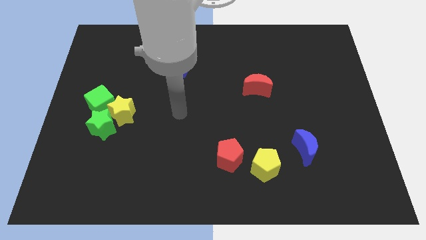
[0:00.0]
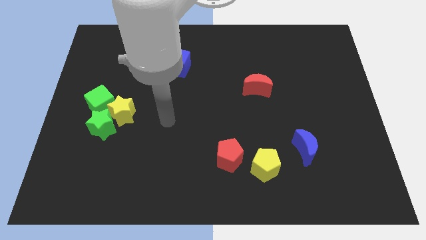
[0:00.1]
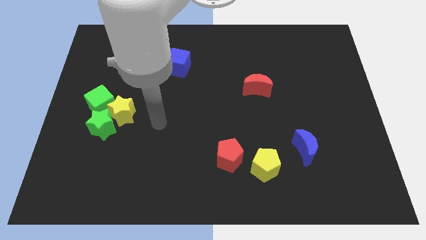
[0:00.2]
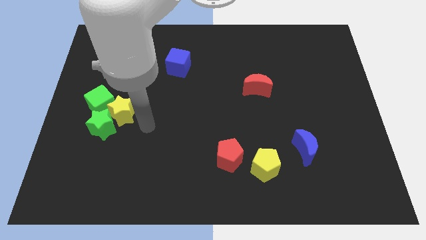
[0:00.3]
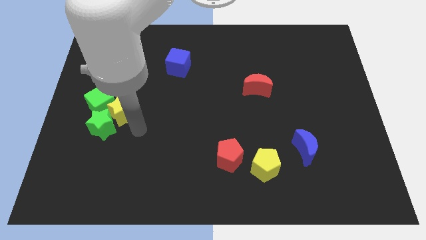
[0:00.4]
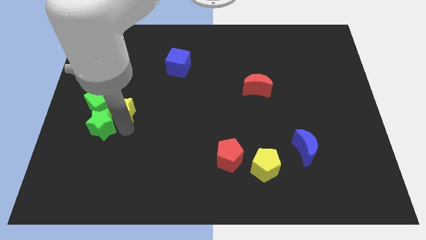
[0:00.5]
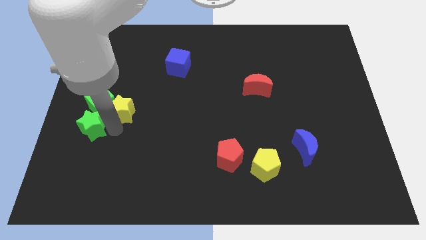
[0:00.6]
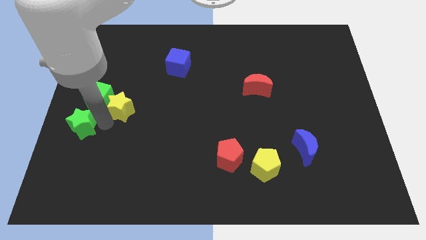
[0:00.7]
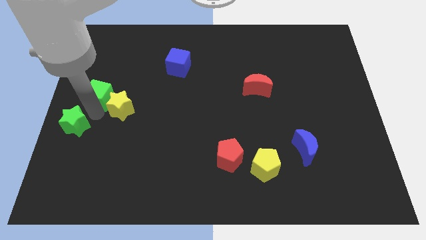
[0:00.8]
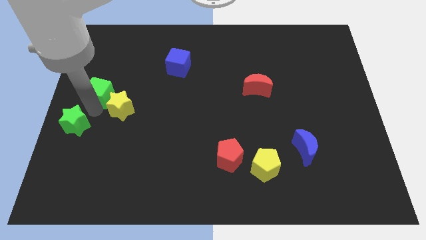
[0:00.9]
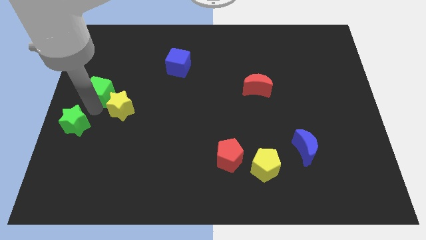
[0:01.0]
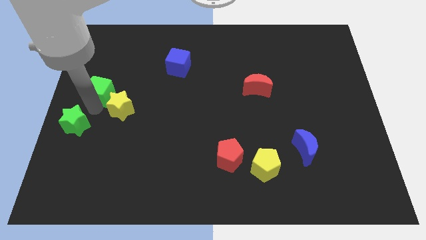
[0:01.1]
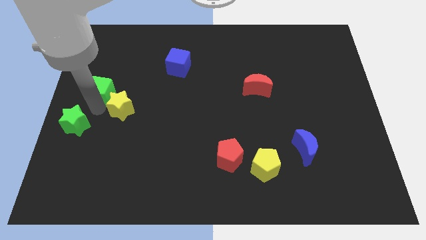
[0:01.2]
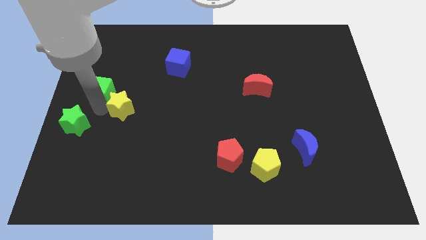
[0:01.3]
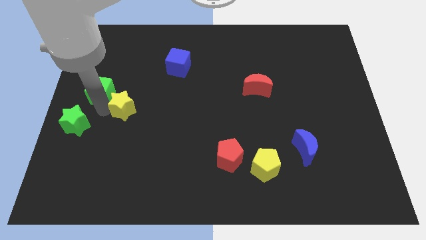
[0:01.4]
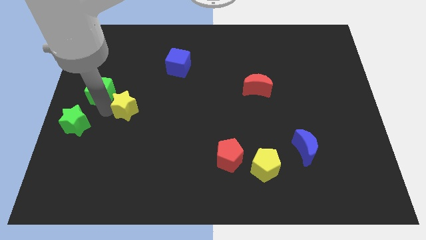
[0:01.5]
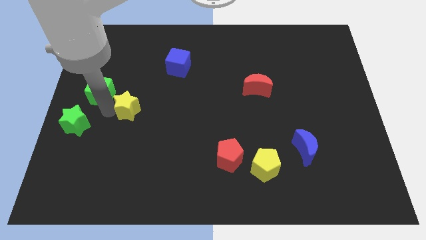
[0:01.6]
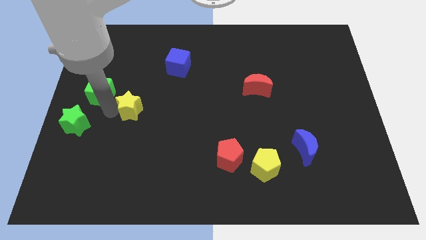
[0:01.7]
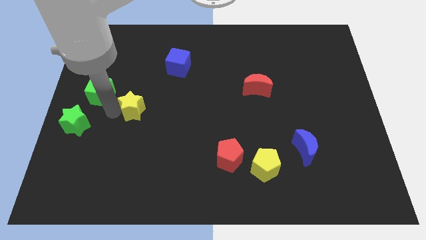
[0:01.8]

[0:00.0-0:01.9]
pull the yellow star apart from the green star and green cube

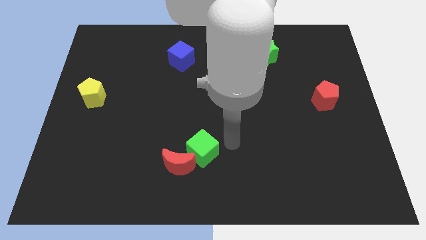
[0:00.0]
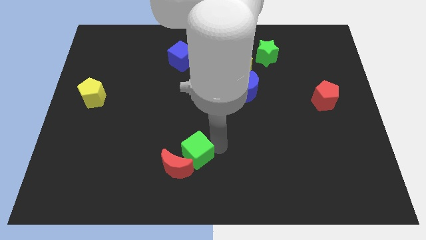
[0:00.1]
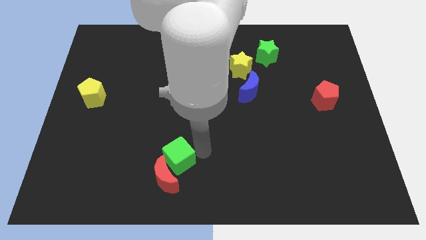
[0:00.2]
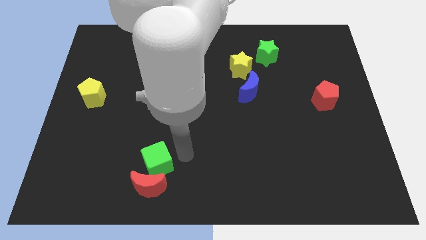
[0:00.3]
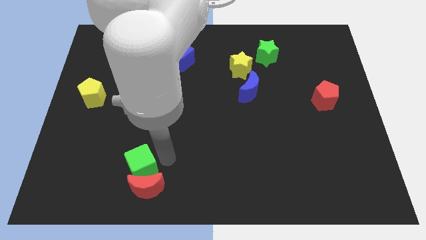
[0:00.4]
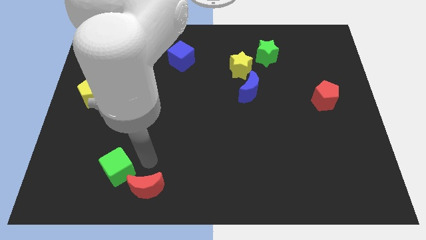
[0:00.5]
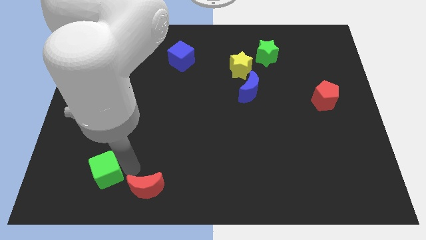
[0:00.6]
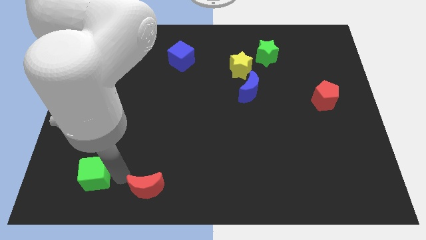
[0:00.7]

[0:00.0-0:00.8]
pull the red moon apart from the green cube

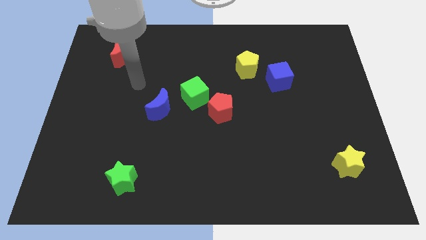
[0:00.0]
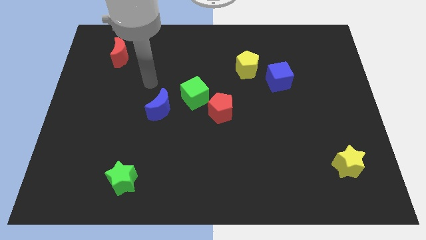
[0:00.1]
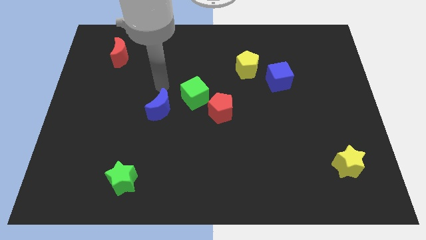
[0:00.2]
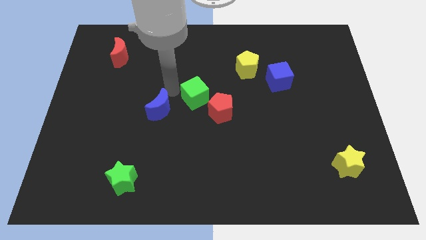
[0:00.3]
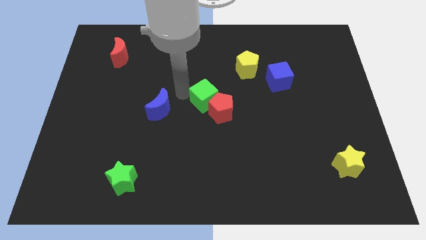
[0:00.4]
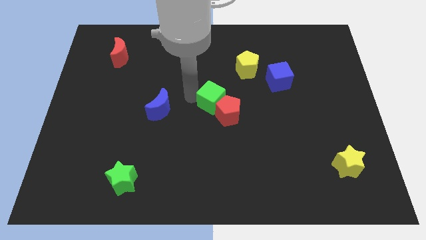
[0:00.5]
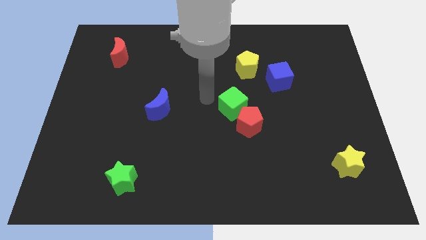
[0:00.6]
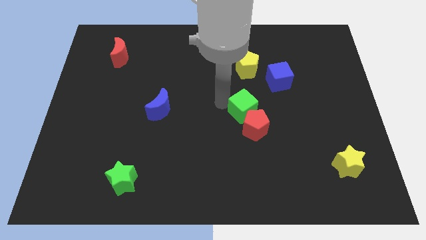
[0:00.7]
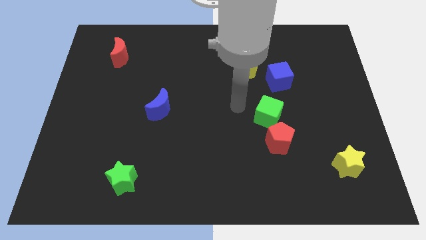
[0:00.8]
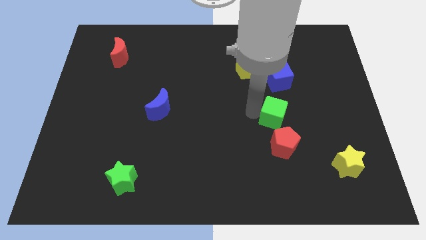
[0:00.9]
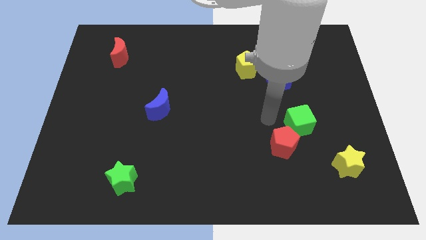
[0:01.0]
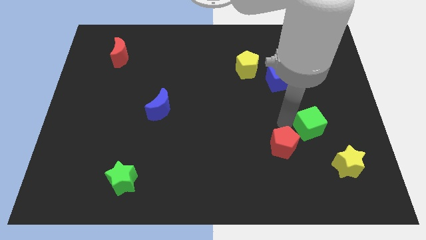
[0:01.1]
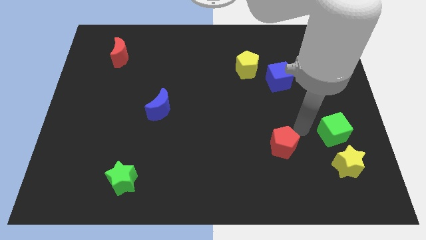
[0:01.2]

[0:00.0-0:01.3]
pull the red pentagon apart from the green cube

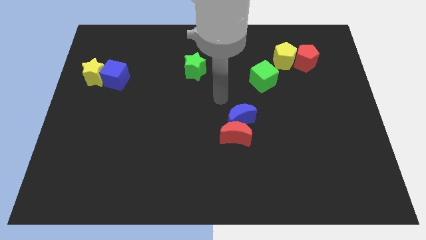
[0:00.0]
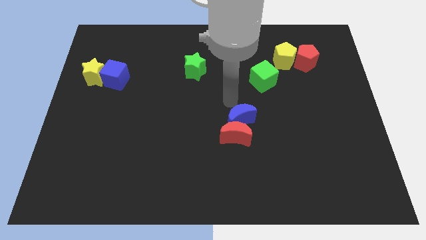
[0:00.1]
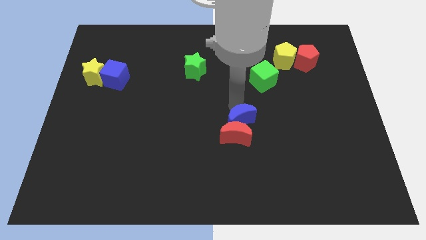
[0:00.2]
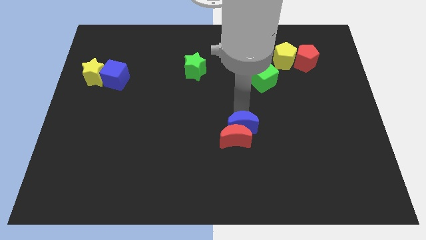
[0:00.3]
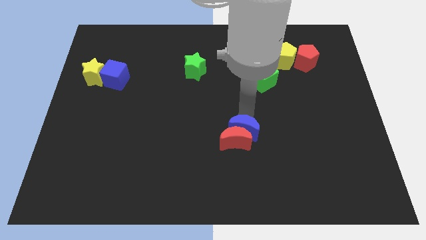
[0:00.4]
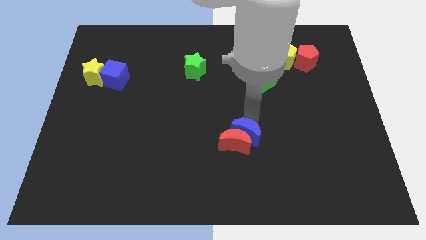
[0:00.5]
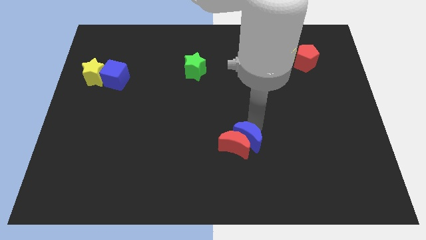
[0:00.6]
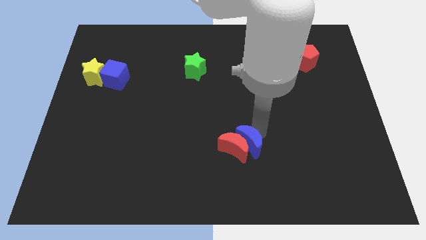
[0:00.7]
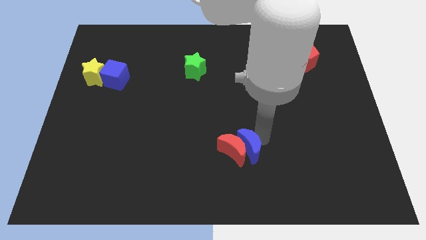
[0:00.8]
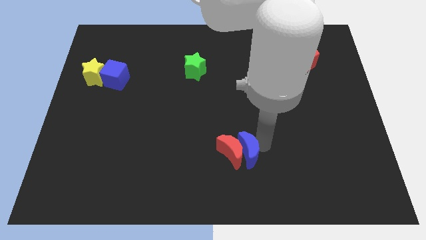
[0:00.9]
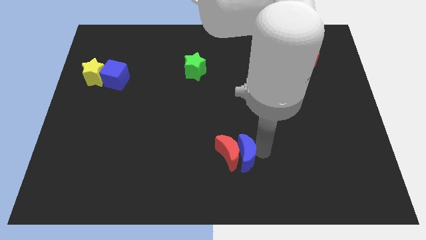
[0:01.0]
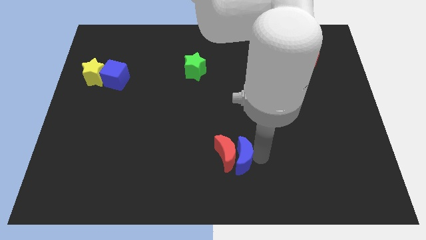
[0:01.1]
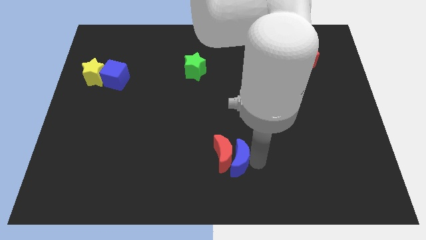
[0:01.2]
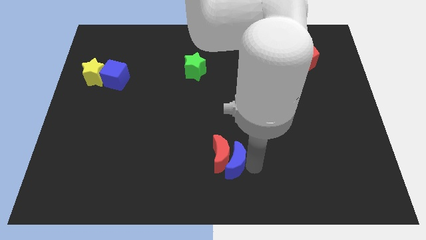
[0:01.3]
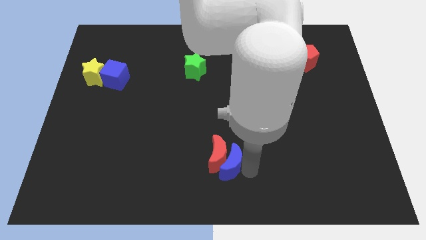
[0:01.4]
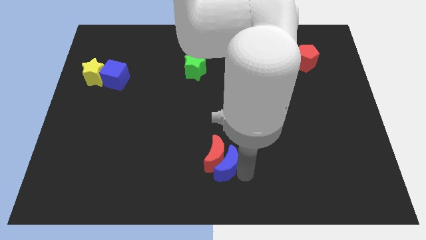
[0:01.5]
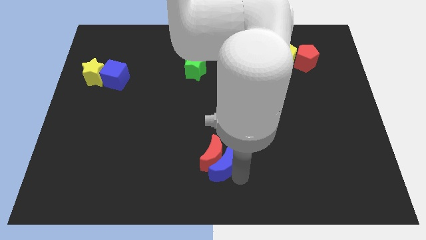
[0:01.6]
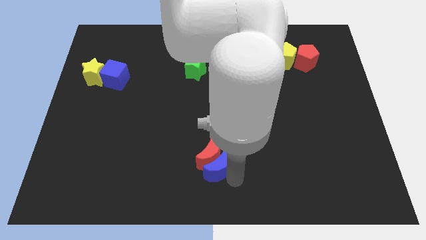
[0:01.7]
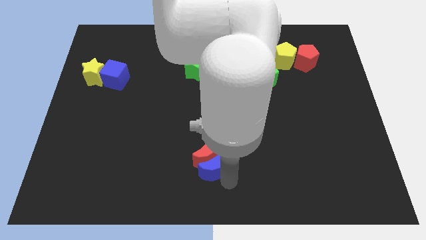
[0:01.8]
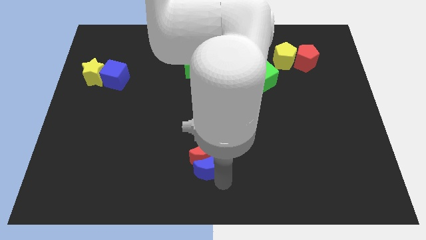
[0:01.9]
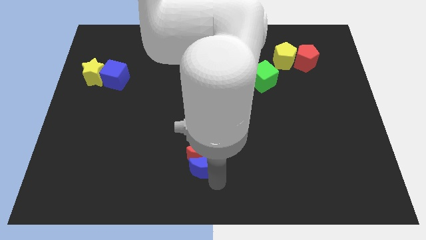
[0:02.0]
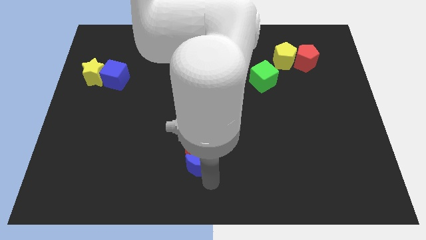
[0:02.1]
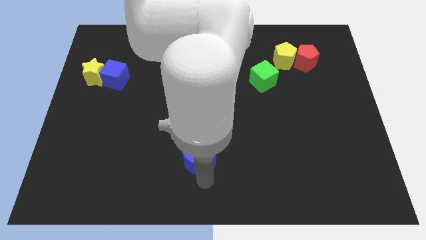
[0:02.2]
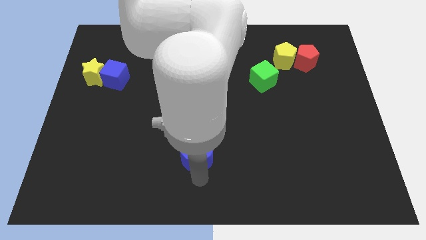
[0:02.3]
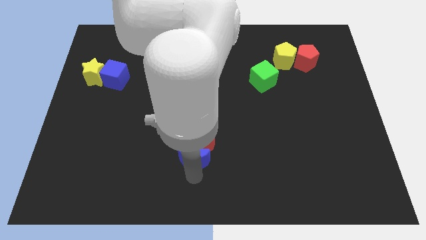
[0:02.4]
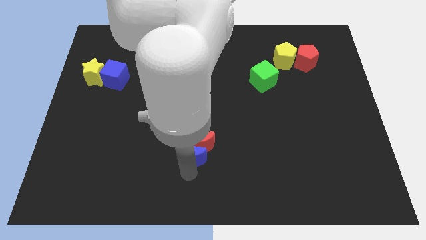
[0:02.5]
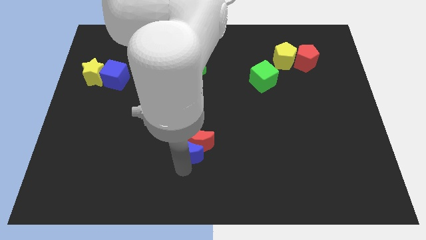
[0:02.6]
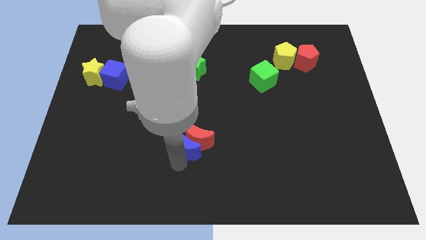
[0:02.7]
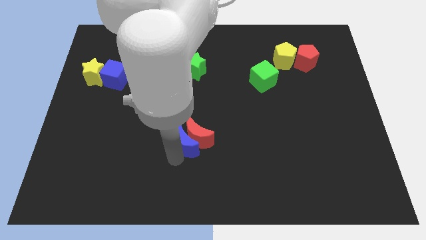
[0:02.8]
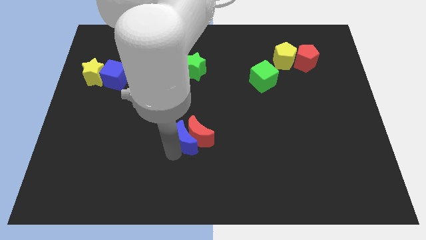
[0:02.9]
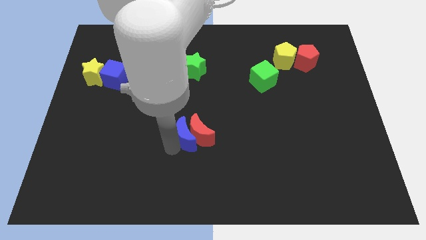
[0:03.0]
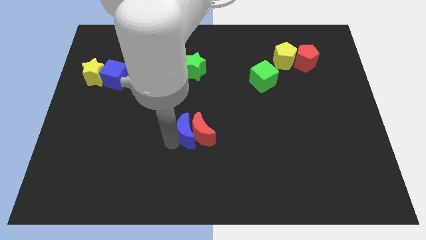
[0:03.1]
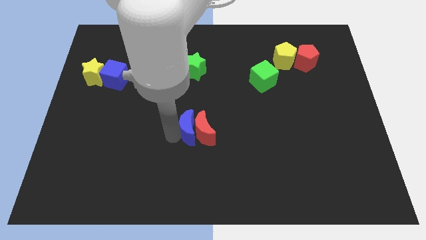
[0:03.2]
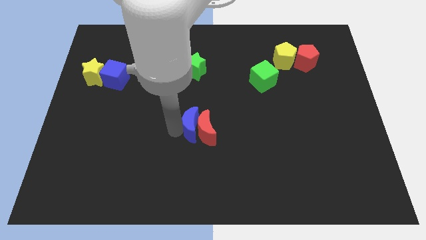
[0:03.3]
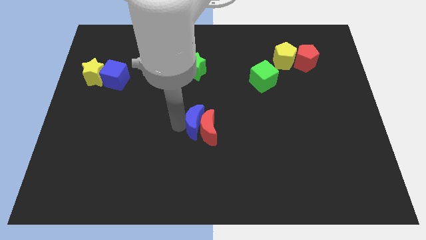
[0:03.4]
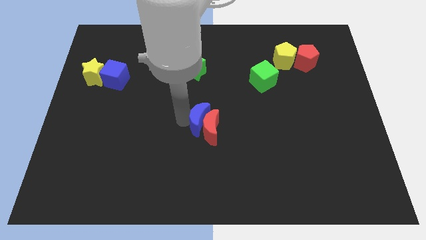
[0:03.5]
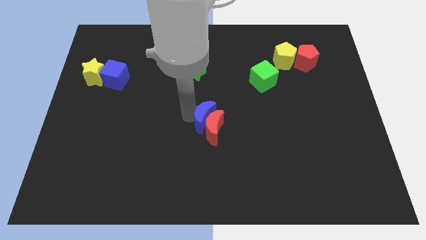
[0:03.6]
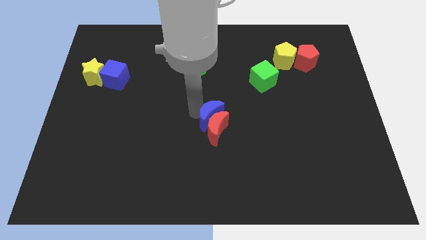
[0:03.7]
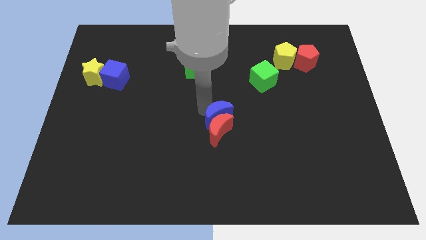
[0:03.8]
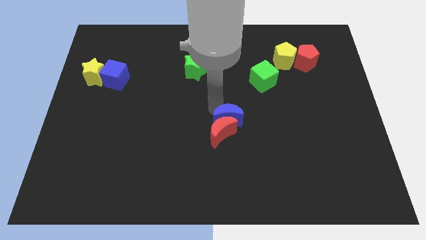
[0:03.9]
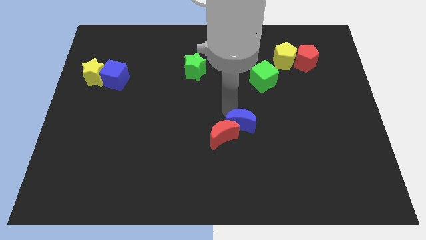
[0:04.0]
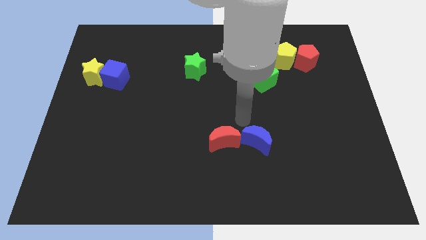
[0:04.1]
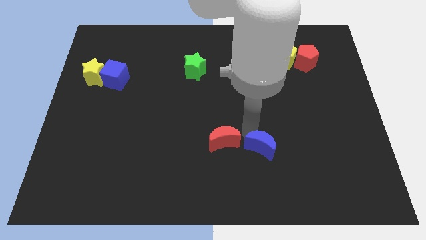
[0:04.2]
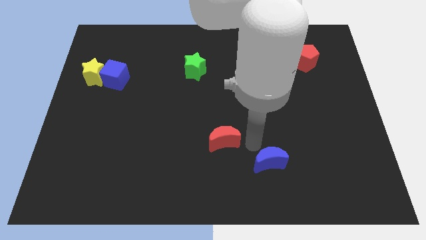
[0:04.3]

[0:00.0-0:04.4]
separate the red moon from the blue moon

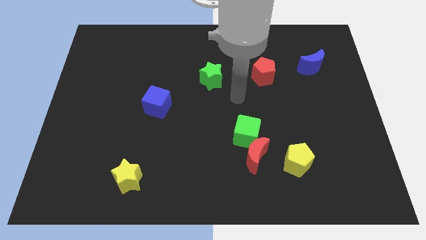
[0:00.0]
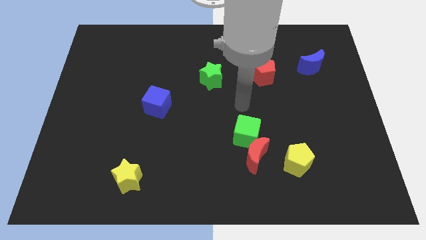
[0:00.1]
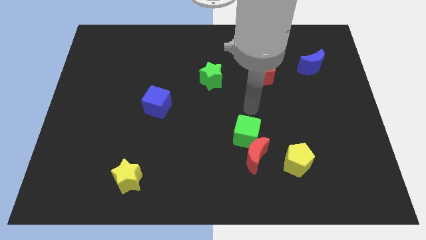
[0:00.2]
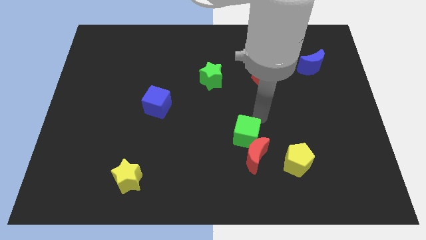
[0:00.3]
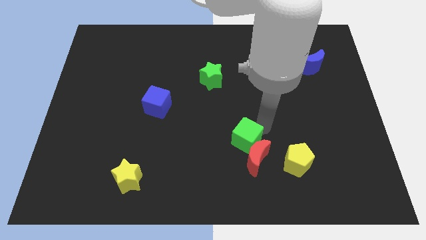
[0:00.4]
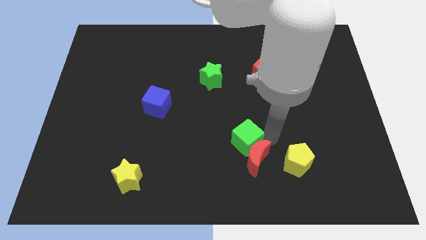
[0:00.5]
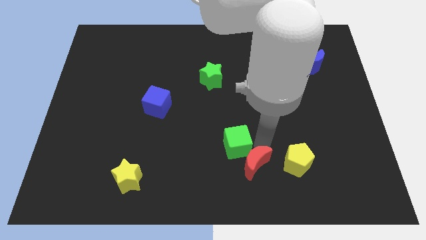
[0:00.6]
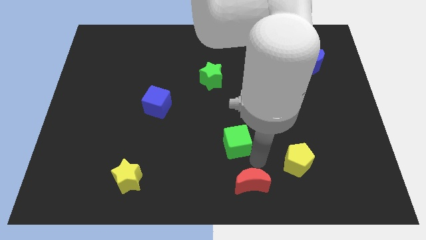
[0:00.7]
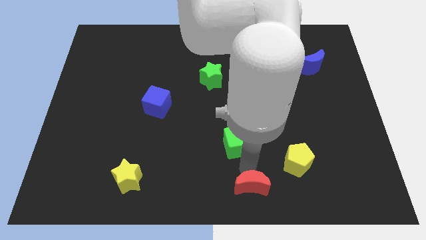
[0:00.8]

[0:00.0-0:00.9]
separate the green cube from the red moon
